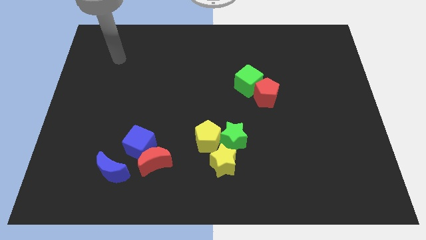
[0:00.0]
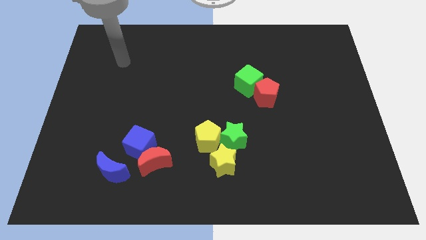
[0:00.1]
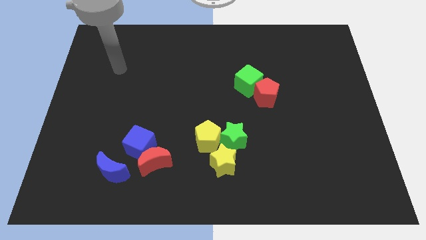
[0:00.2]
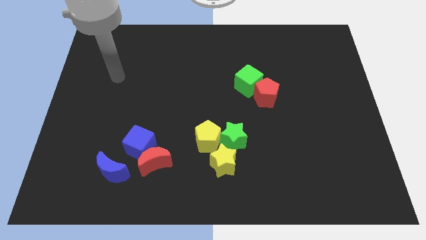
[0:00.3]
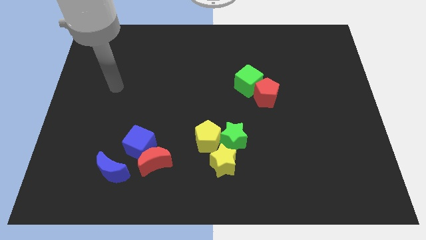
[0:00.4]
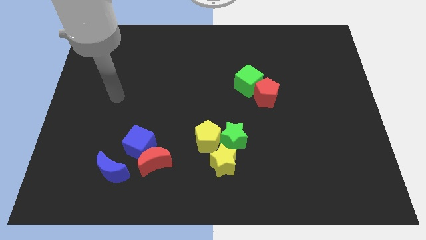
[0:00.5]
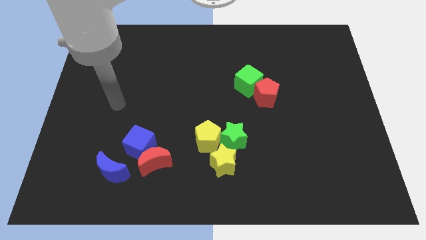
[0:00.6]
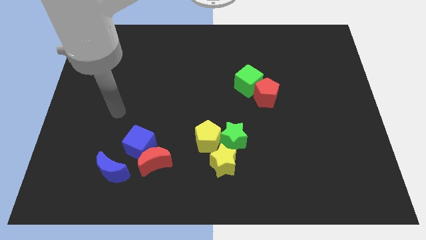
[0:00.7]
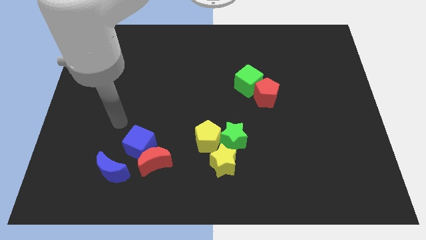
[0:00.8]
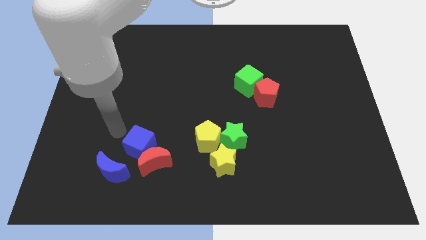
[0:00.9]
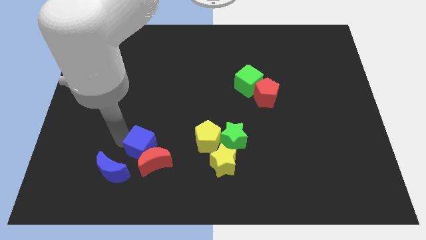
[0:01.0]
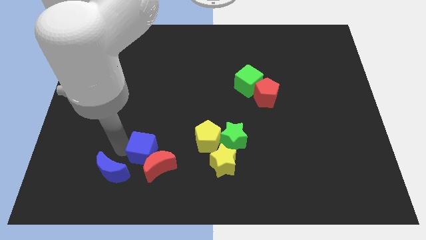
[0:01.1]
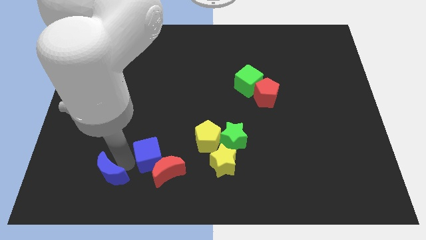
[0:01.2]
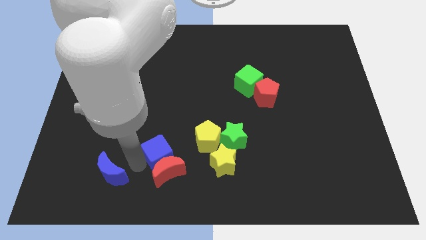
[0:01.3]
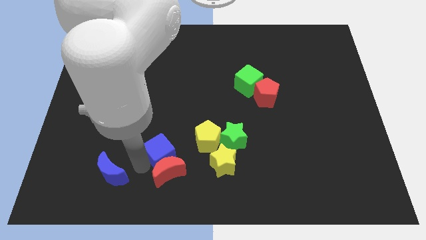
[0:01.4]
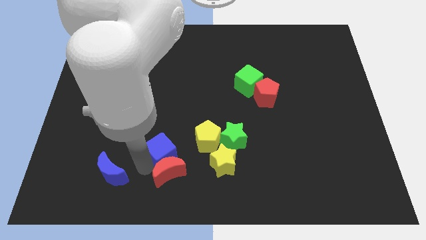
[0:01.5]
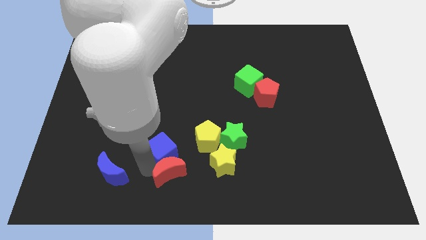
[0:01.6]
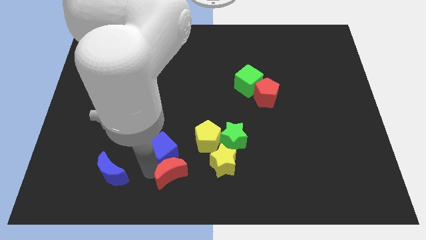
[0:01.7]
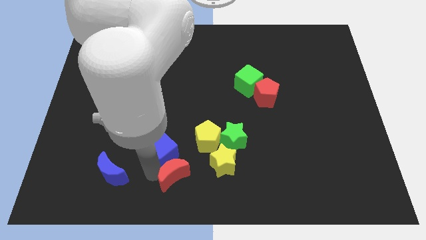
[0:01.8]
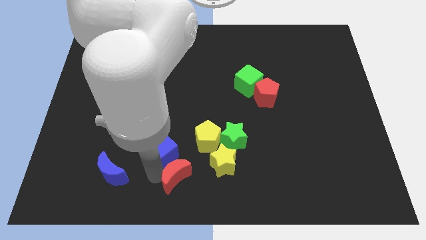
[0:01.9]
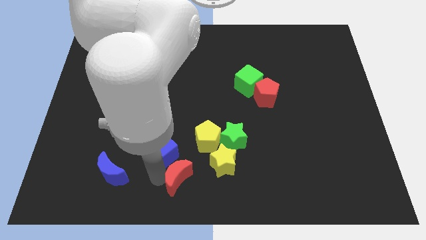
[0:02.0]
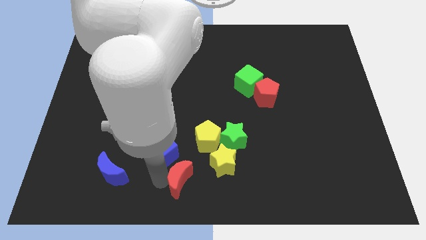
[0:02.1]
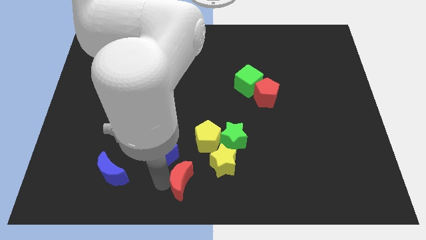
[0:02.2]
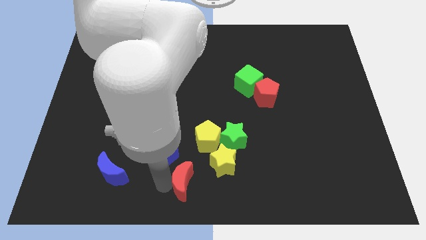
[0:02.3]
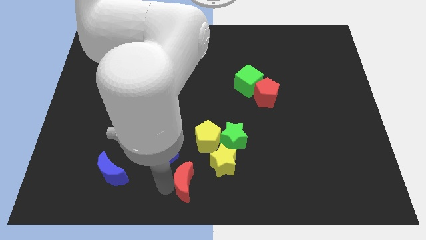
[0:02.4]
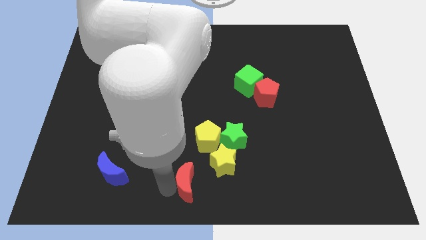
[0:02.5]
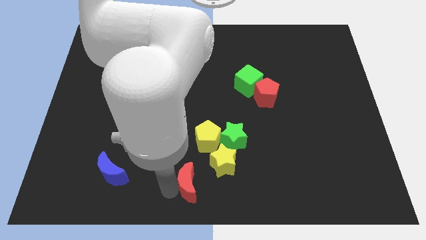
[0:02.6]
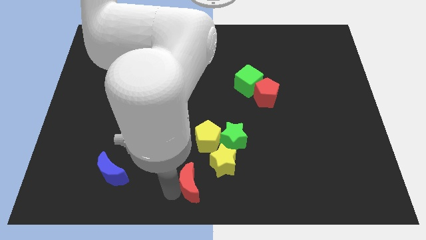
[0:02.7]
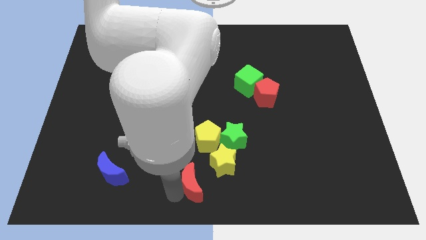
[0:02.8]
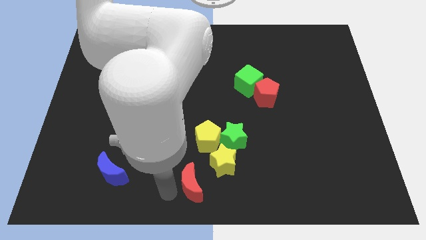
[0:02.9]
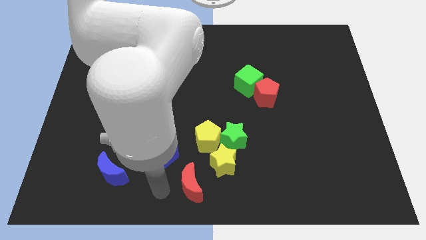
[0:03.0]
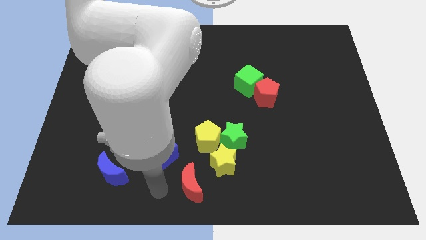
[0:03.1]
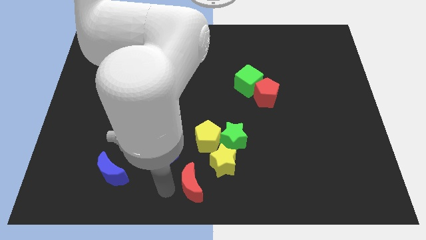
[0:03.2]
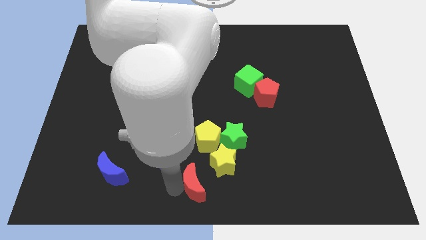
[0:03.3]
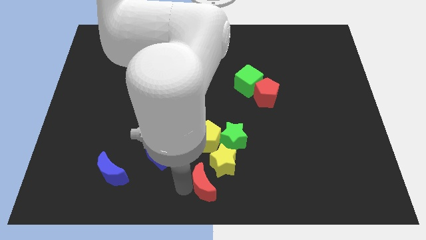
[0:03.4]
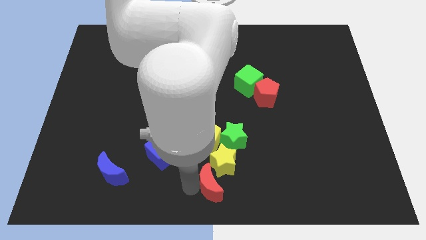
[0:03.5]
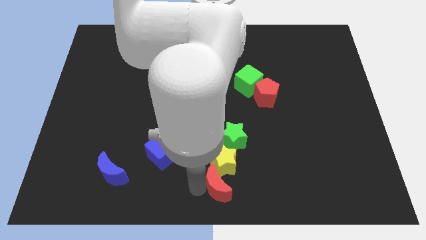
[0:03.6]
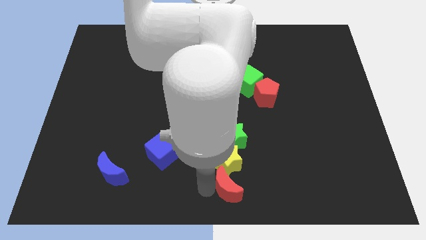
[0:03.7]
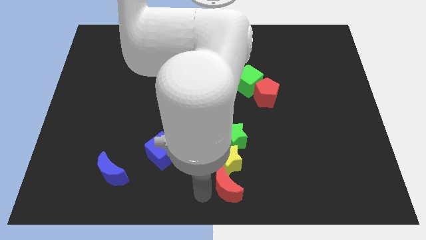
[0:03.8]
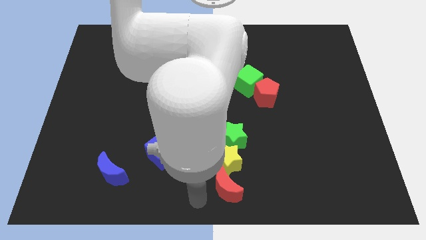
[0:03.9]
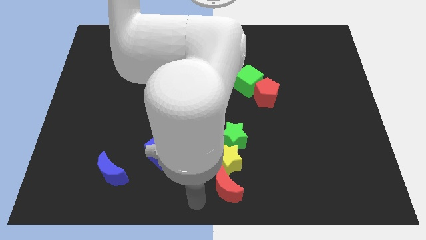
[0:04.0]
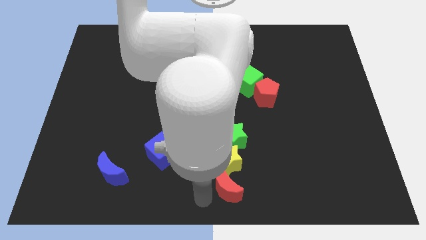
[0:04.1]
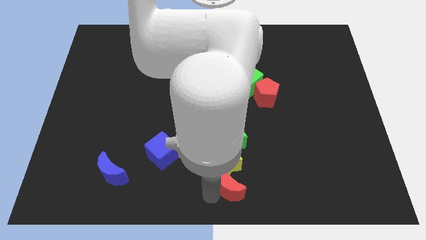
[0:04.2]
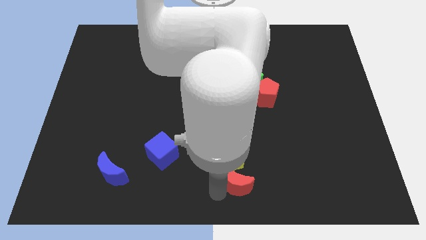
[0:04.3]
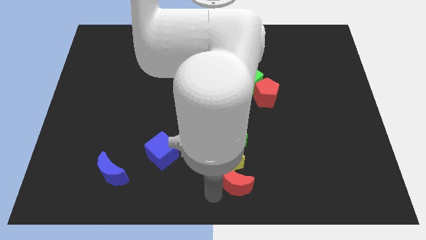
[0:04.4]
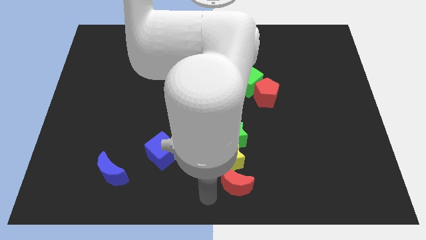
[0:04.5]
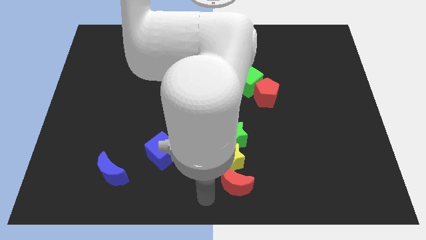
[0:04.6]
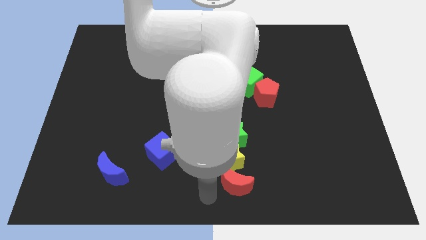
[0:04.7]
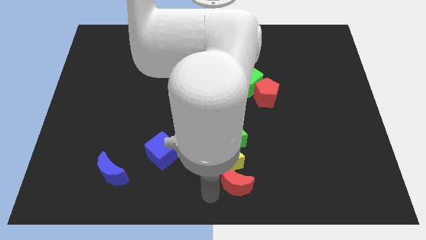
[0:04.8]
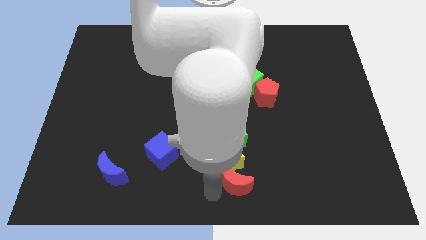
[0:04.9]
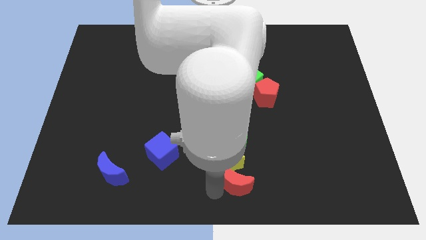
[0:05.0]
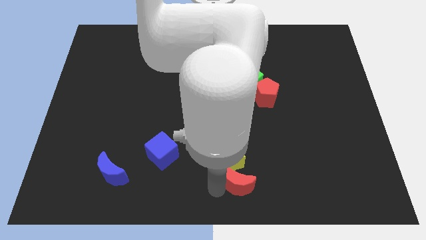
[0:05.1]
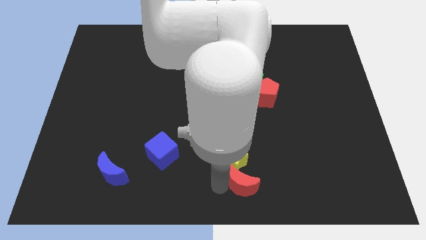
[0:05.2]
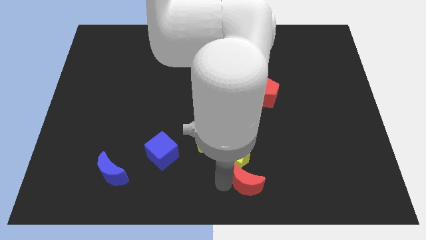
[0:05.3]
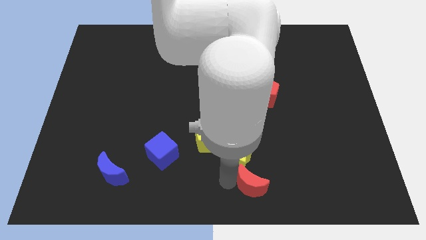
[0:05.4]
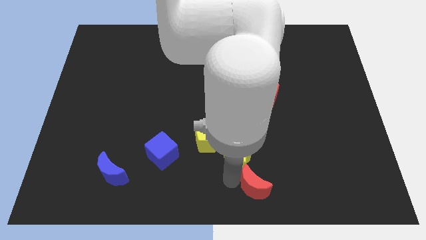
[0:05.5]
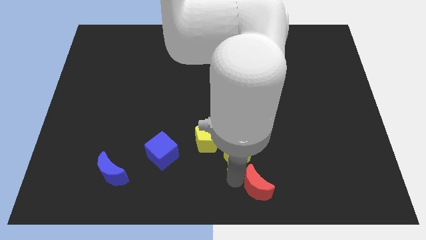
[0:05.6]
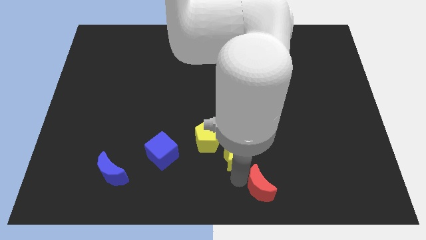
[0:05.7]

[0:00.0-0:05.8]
slide the red moon right

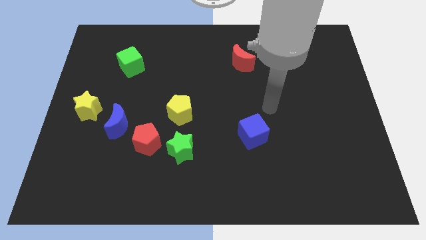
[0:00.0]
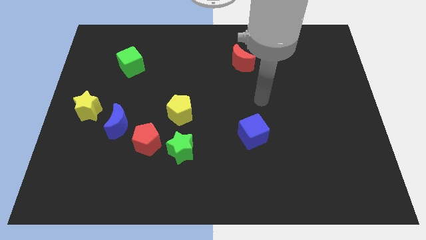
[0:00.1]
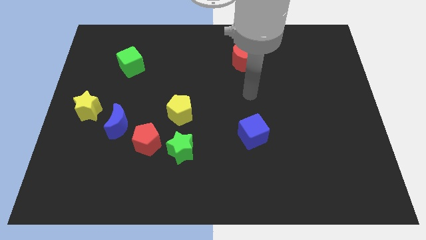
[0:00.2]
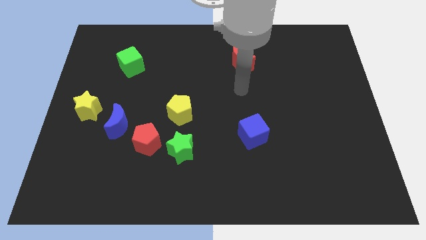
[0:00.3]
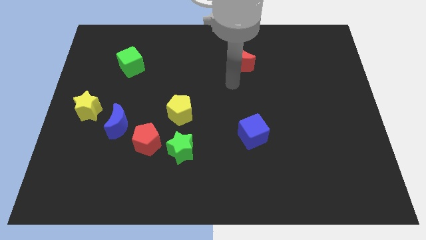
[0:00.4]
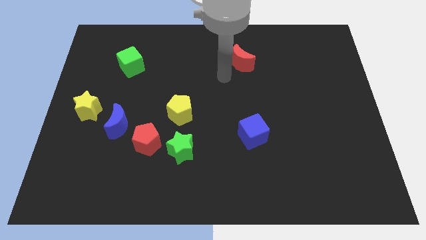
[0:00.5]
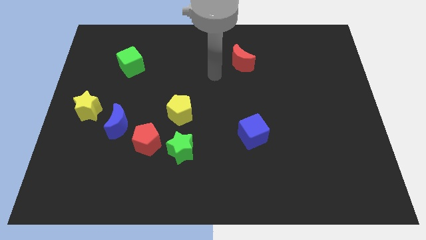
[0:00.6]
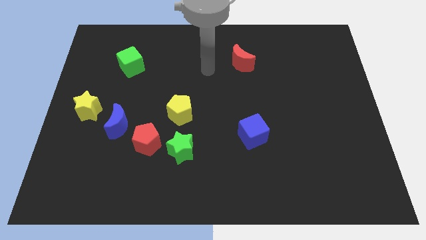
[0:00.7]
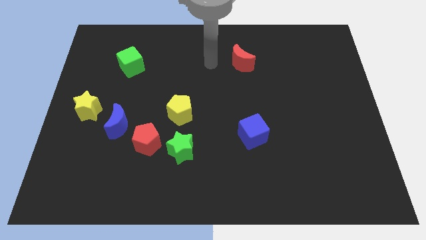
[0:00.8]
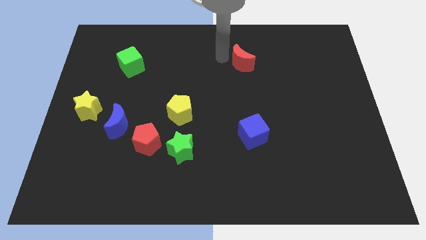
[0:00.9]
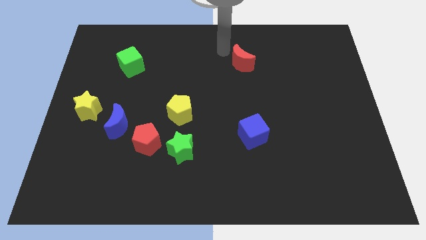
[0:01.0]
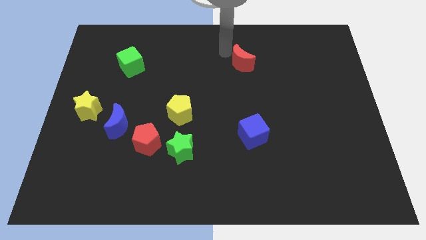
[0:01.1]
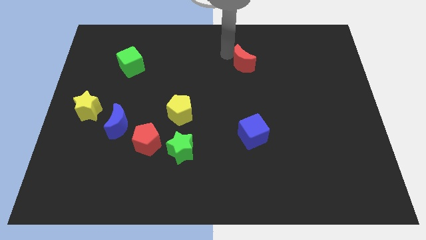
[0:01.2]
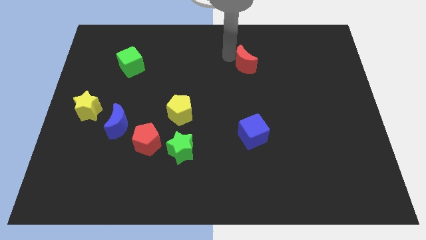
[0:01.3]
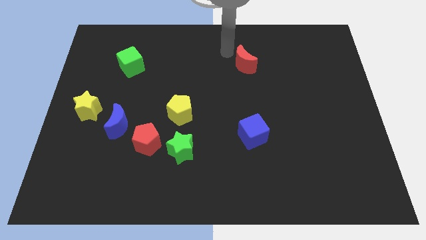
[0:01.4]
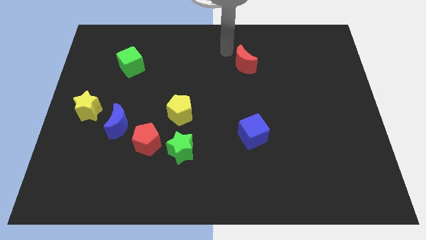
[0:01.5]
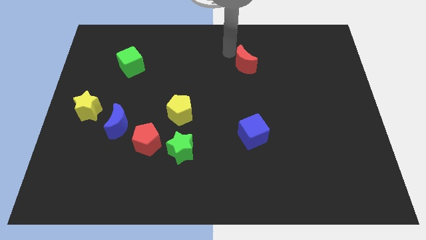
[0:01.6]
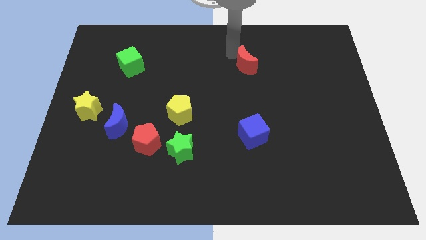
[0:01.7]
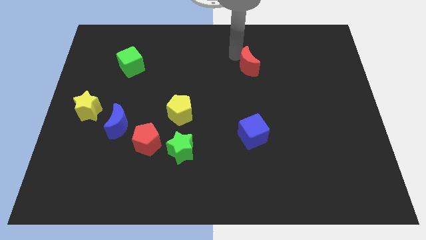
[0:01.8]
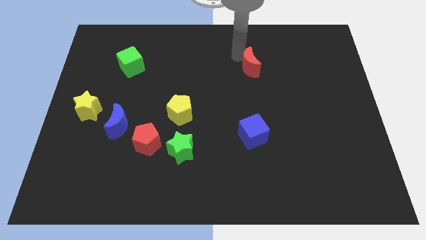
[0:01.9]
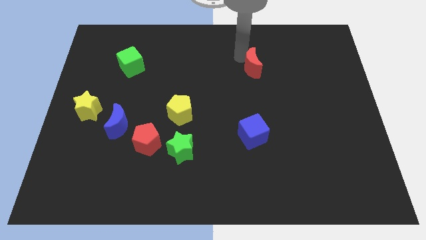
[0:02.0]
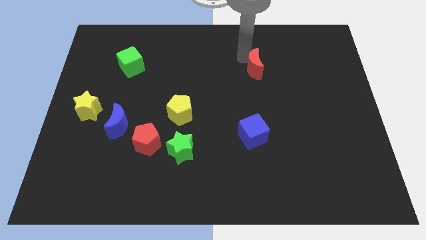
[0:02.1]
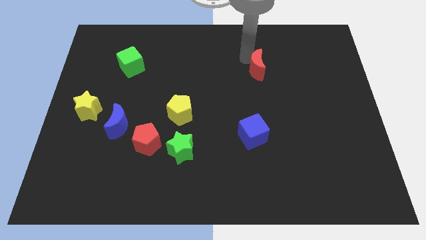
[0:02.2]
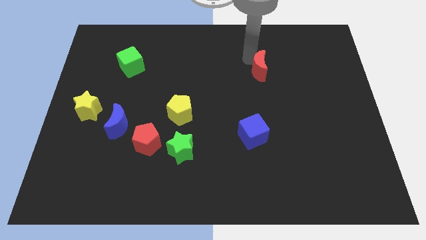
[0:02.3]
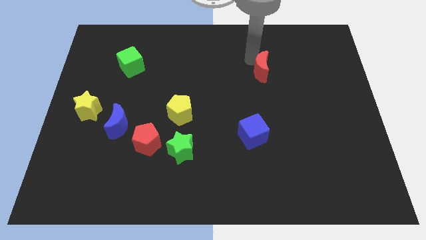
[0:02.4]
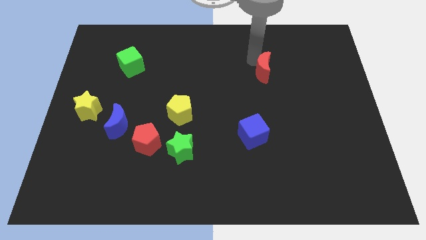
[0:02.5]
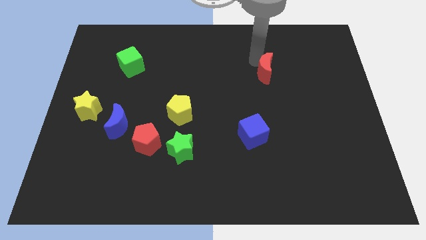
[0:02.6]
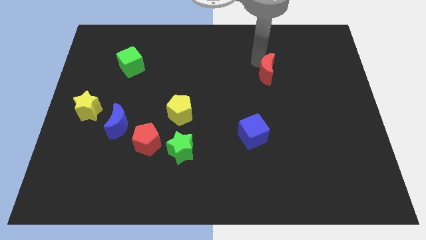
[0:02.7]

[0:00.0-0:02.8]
slightly slide the red moon downwards and then right

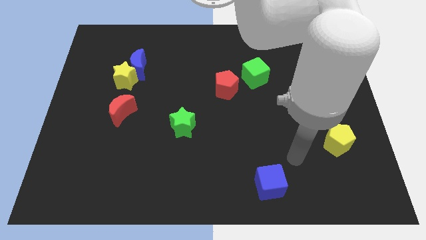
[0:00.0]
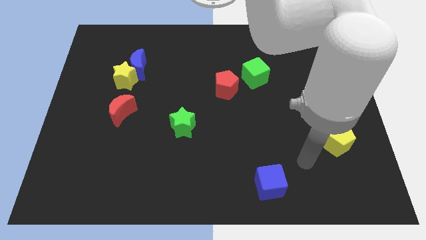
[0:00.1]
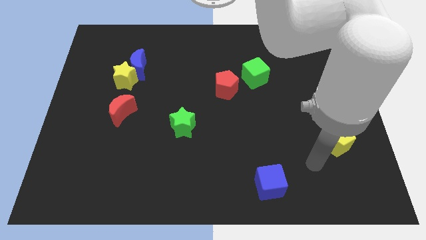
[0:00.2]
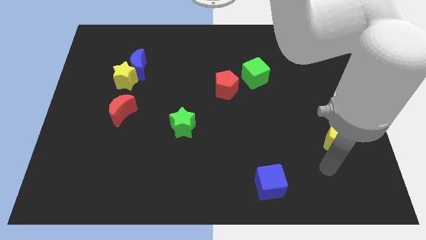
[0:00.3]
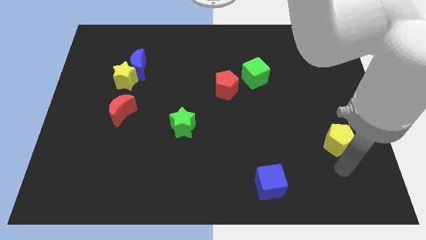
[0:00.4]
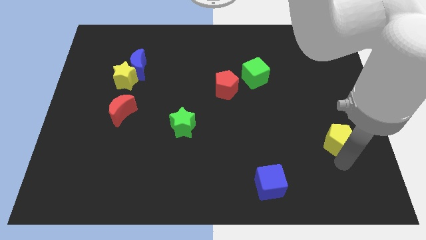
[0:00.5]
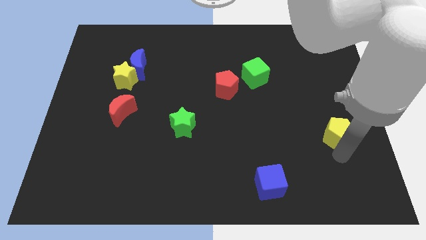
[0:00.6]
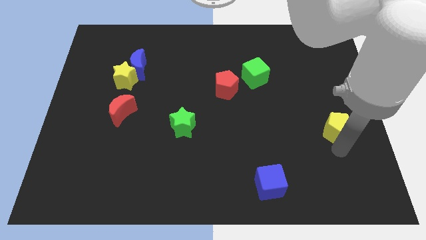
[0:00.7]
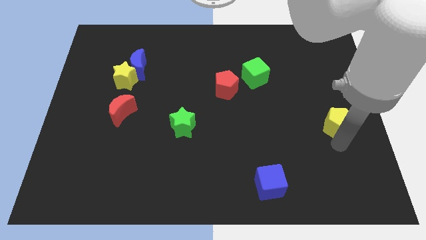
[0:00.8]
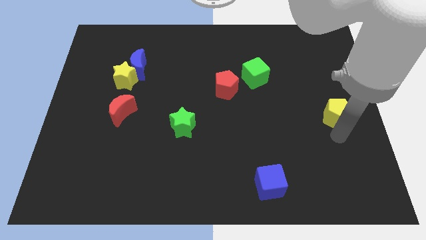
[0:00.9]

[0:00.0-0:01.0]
push the yellow pentagon upwards slightly
